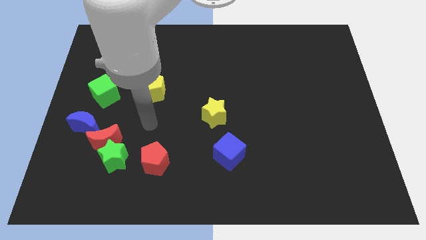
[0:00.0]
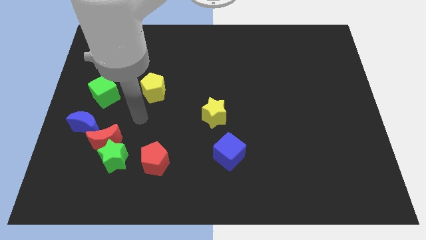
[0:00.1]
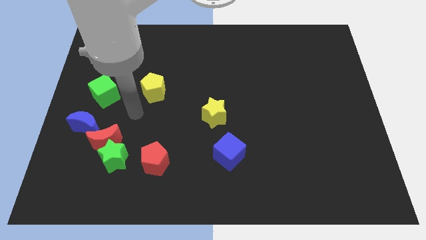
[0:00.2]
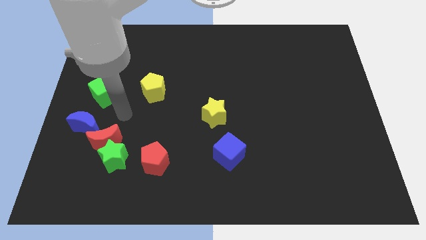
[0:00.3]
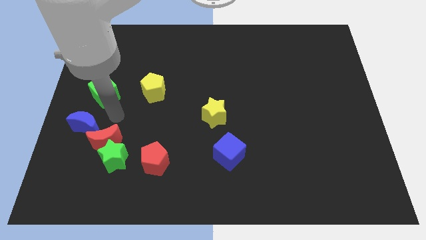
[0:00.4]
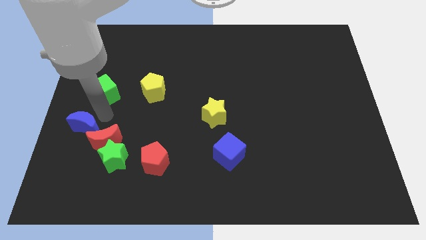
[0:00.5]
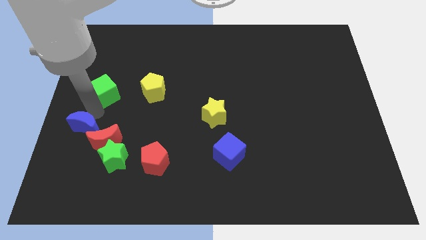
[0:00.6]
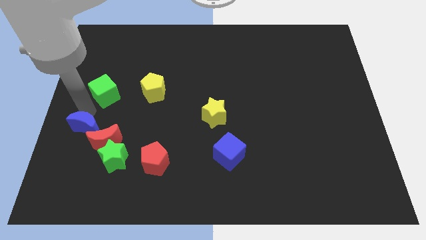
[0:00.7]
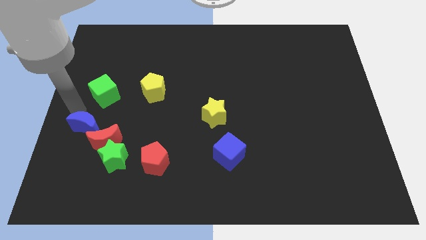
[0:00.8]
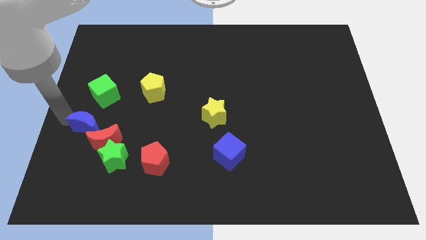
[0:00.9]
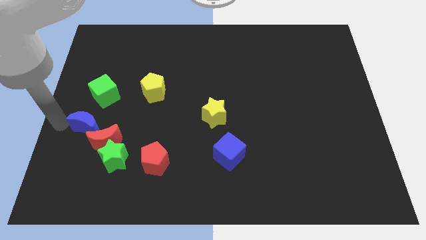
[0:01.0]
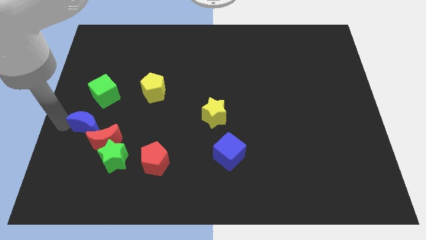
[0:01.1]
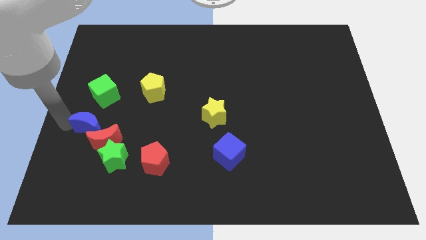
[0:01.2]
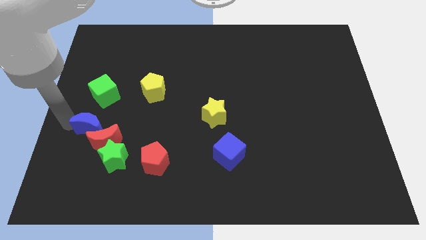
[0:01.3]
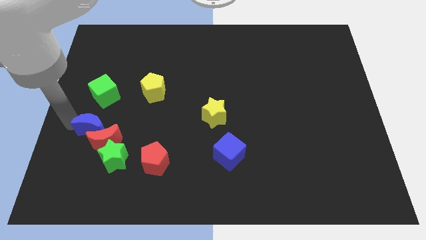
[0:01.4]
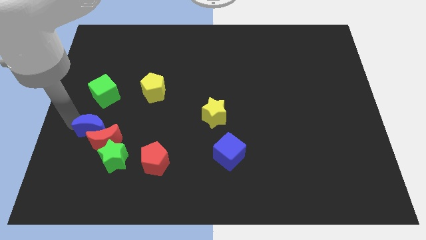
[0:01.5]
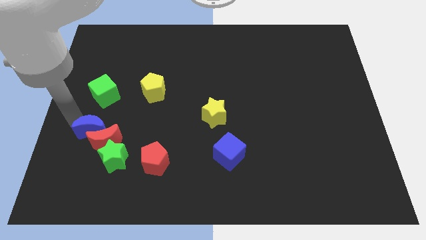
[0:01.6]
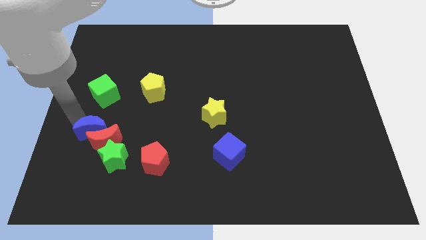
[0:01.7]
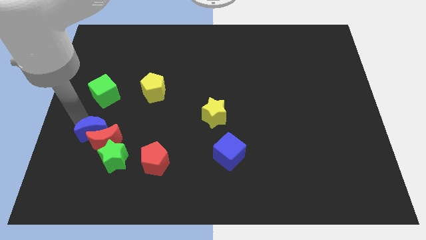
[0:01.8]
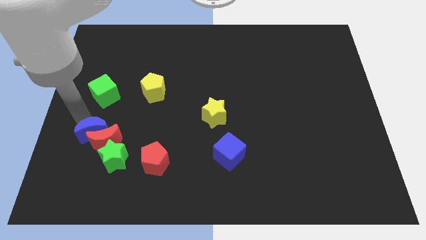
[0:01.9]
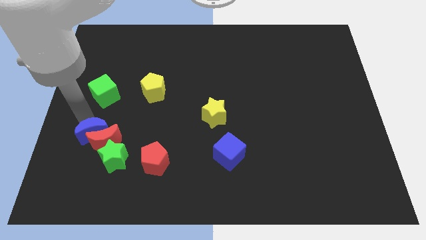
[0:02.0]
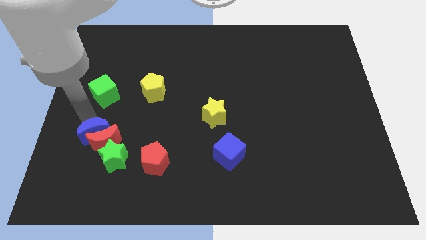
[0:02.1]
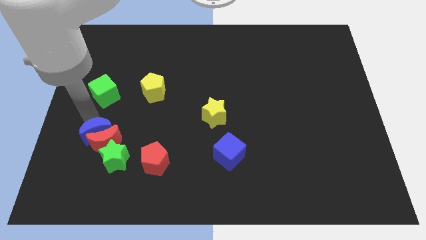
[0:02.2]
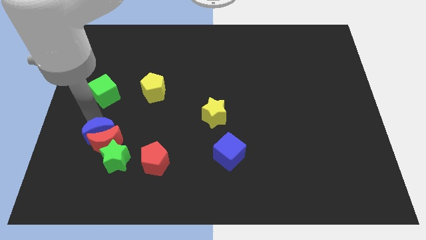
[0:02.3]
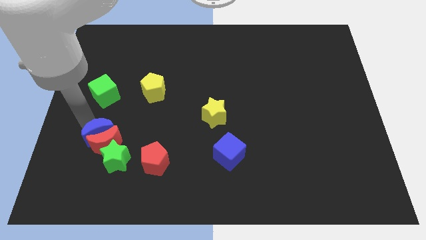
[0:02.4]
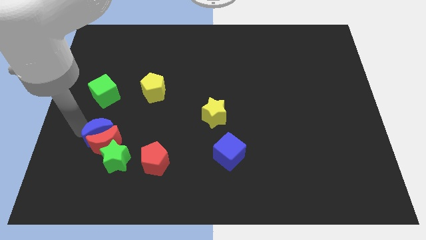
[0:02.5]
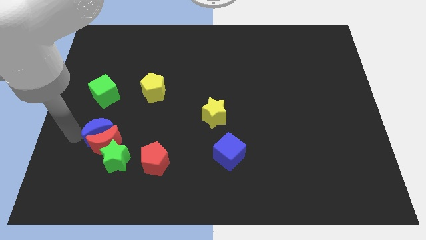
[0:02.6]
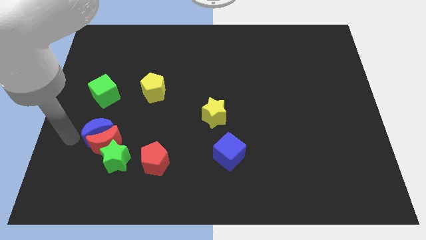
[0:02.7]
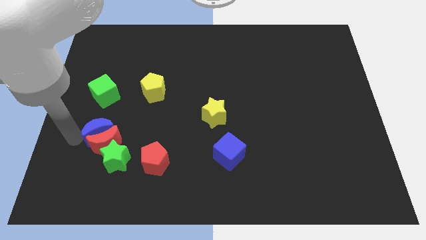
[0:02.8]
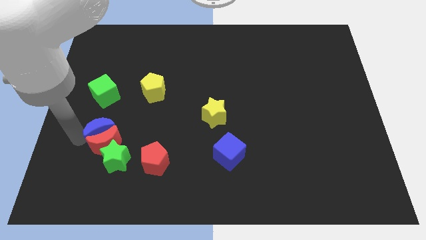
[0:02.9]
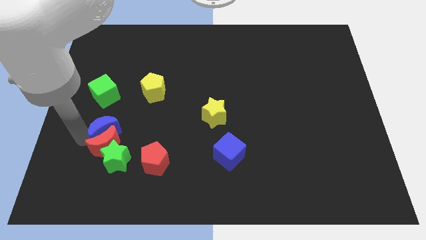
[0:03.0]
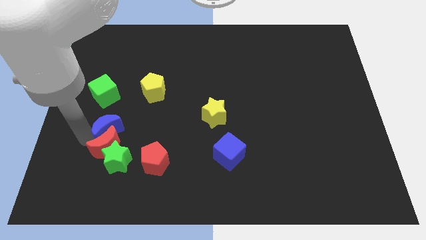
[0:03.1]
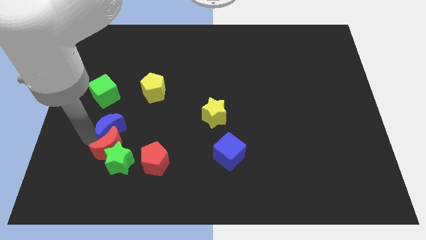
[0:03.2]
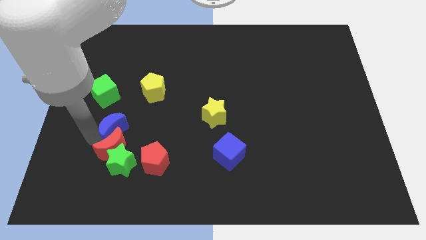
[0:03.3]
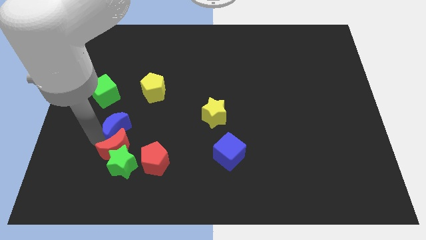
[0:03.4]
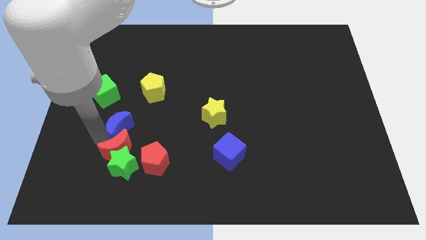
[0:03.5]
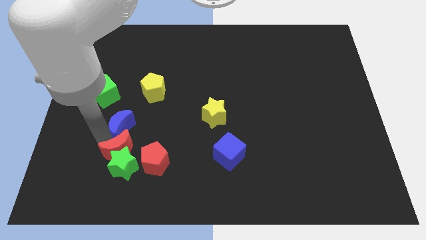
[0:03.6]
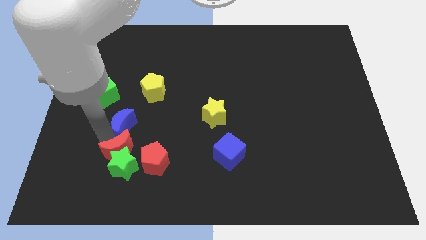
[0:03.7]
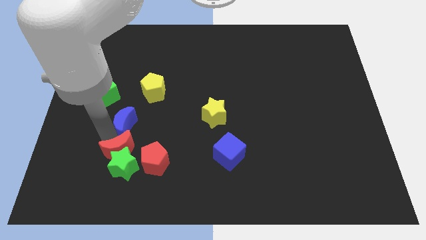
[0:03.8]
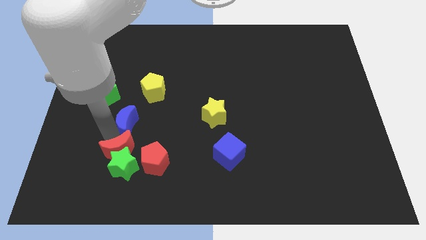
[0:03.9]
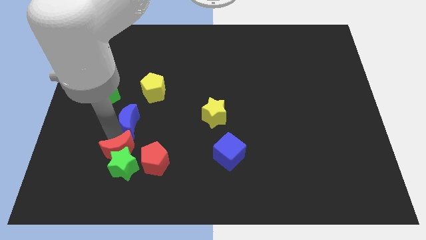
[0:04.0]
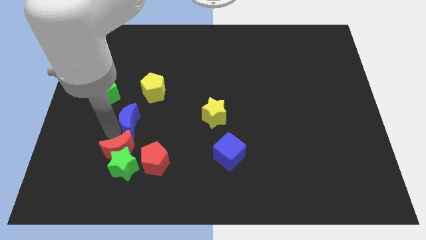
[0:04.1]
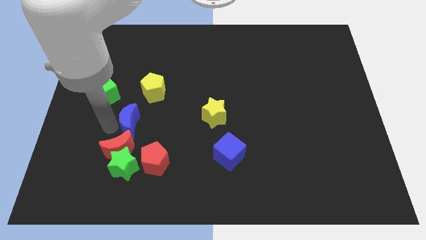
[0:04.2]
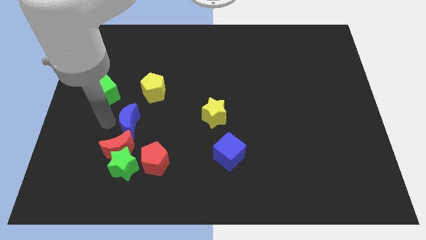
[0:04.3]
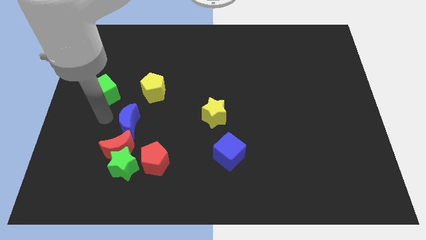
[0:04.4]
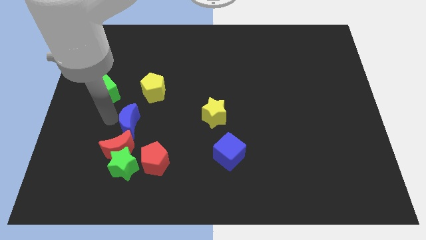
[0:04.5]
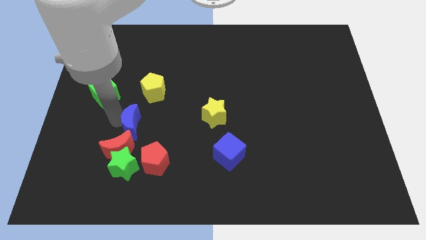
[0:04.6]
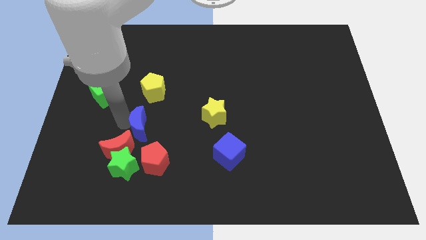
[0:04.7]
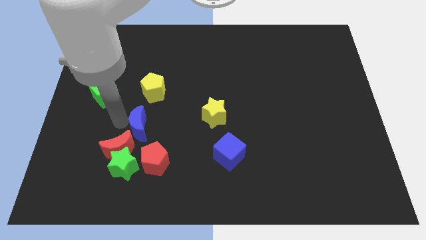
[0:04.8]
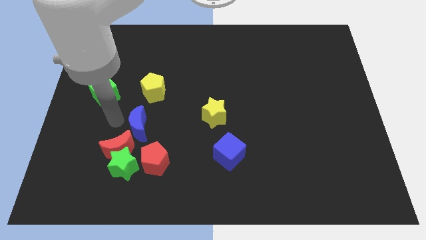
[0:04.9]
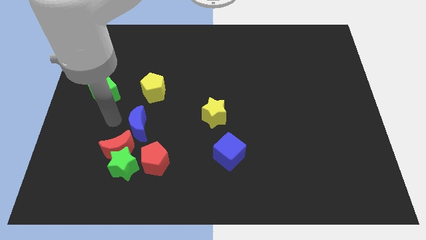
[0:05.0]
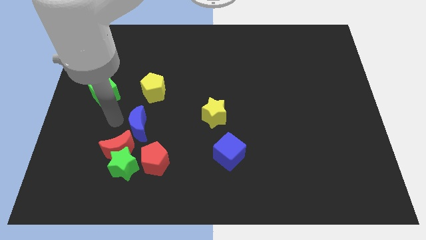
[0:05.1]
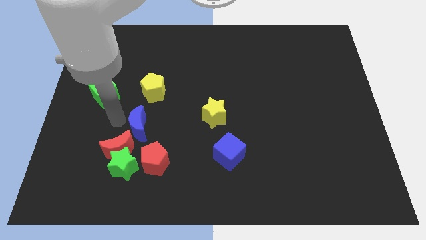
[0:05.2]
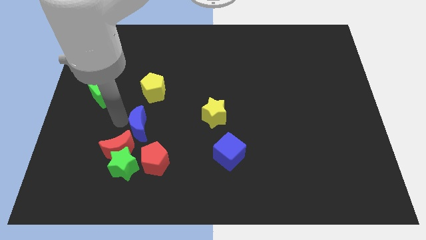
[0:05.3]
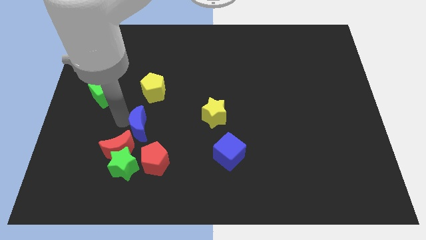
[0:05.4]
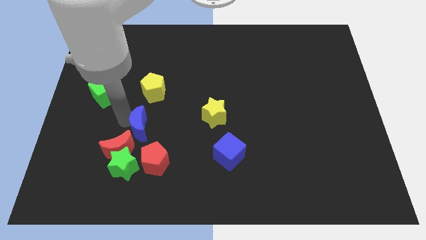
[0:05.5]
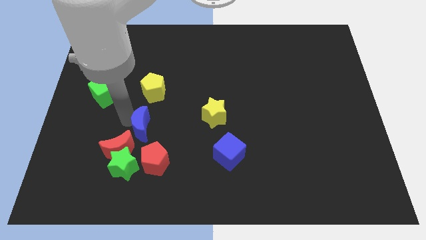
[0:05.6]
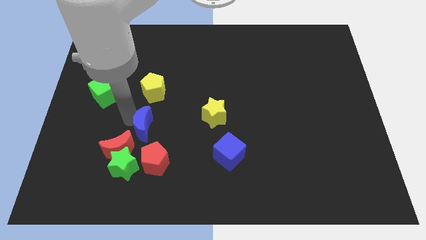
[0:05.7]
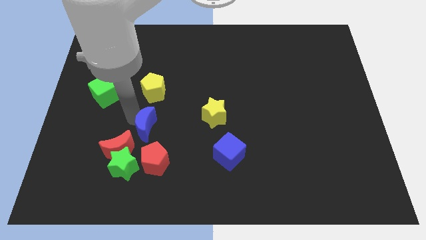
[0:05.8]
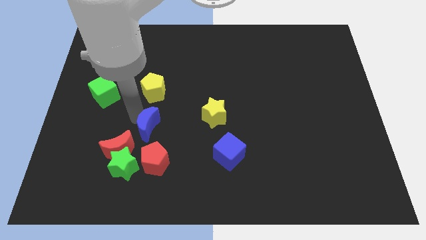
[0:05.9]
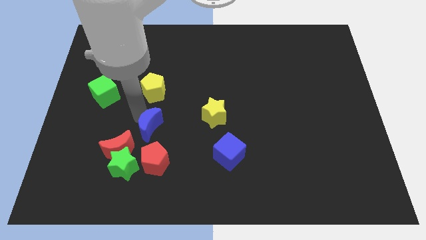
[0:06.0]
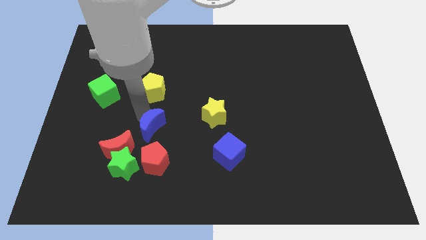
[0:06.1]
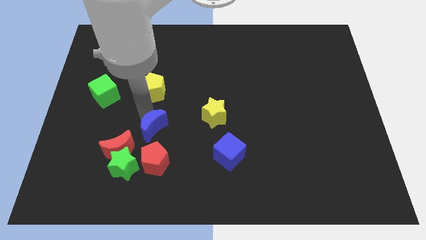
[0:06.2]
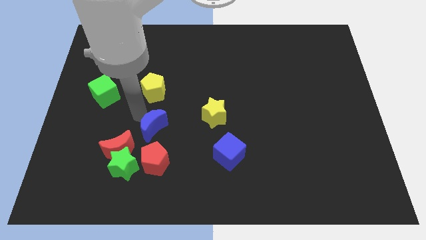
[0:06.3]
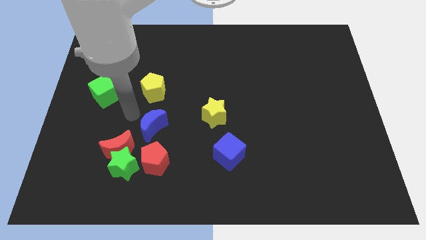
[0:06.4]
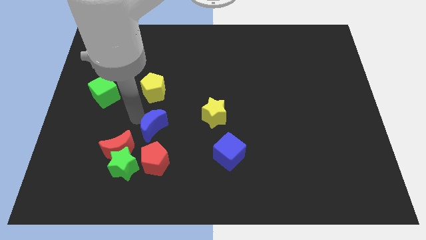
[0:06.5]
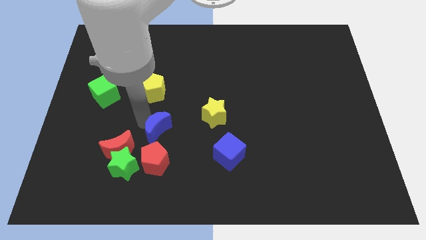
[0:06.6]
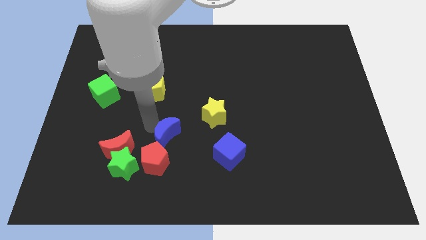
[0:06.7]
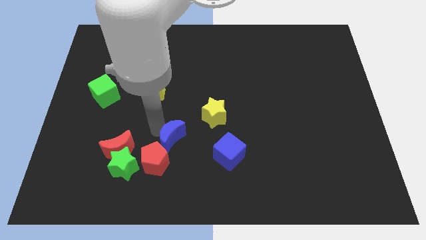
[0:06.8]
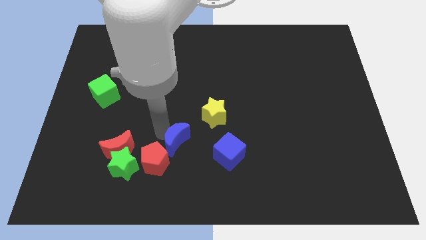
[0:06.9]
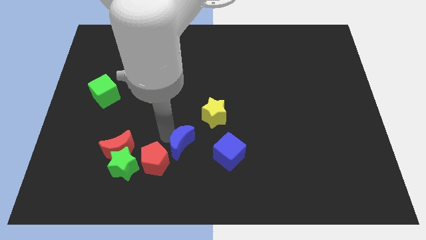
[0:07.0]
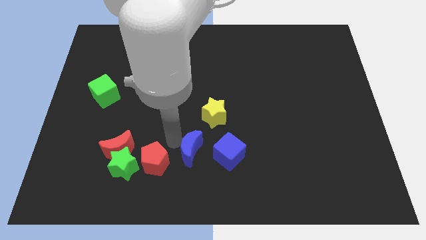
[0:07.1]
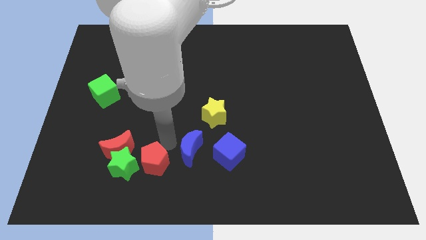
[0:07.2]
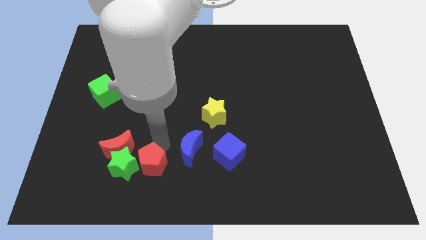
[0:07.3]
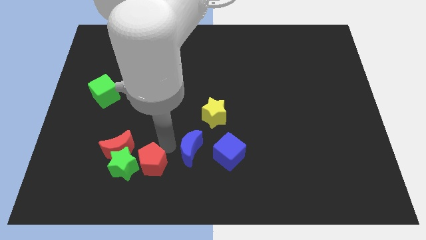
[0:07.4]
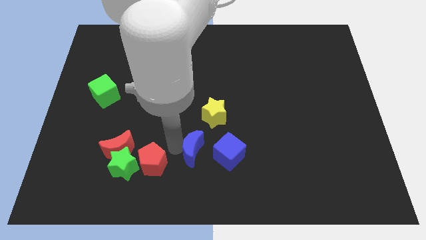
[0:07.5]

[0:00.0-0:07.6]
move the blue moon to the bottom of the yellow star

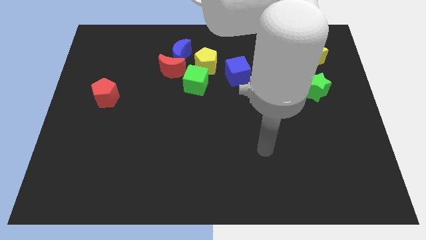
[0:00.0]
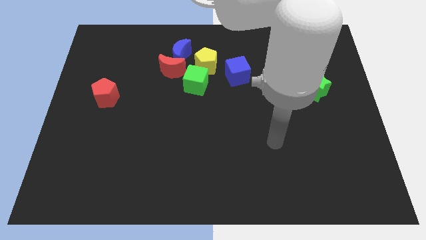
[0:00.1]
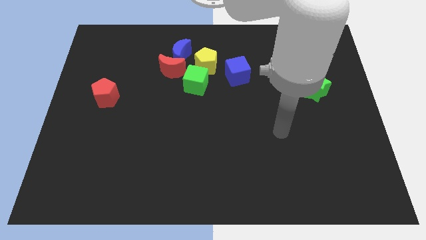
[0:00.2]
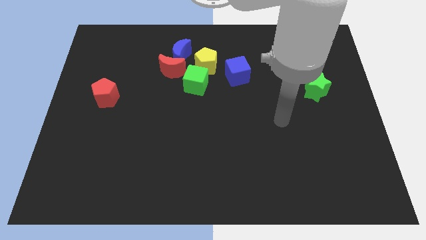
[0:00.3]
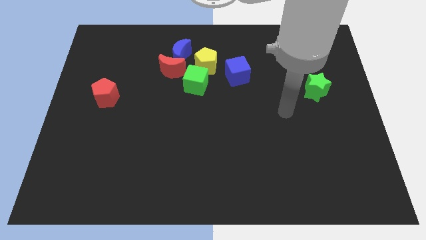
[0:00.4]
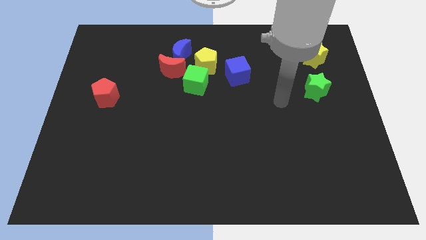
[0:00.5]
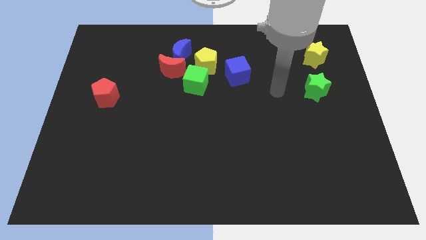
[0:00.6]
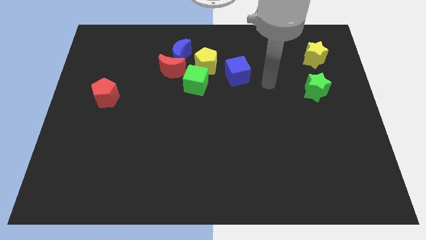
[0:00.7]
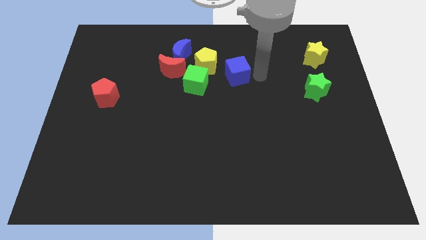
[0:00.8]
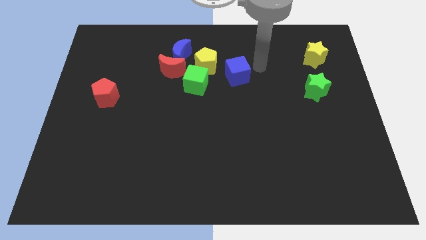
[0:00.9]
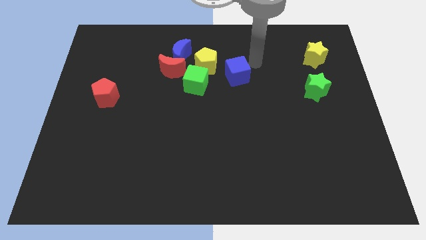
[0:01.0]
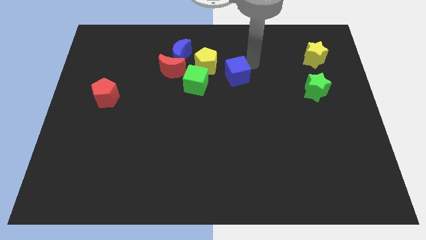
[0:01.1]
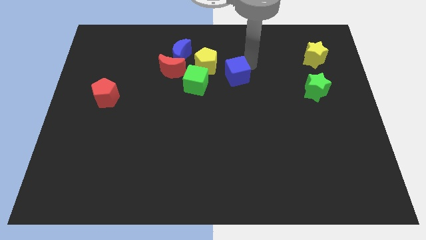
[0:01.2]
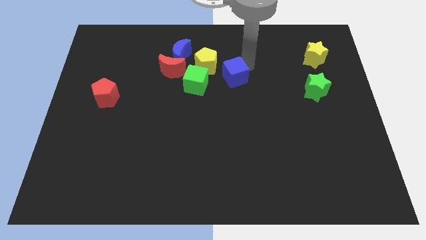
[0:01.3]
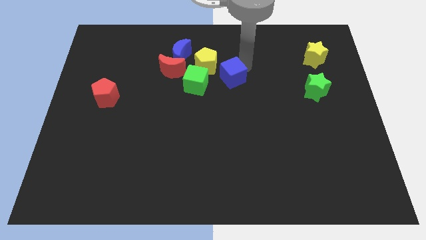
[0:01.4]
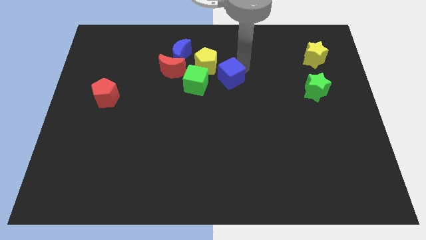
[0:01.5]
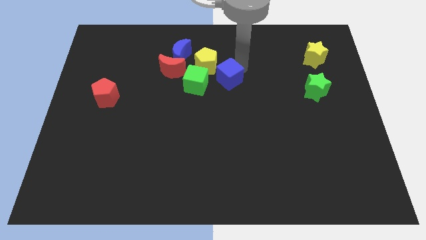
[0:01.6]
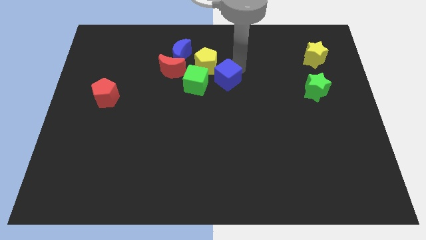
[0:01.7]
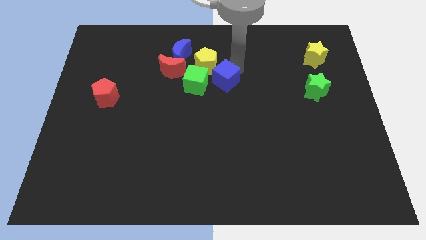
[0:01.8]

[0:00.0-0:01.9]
put the blue cube to the bottom of the yellow pentagon
